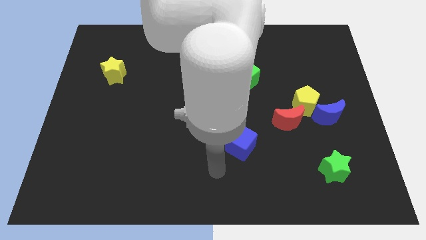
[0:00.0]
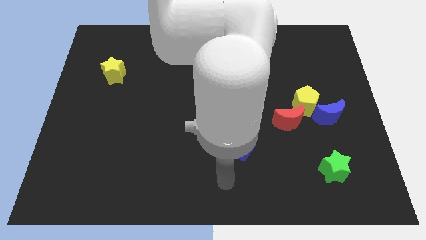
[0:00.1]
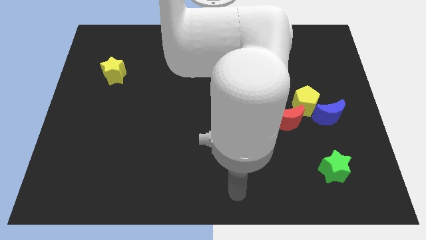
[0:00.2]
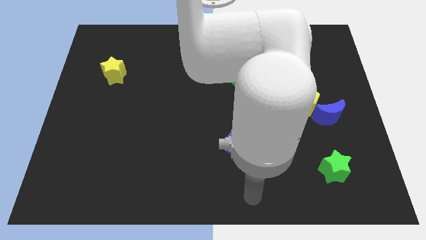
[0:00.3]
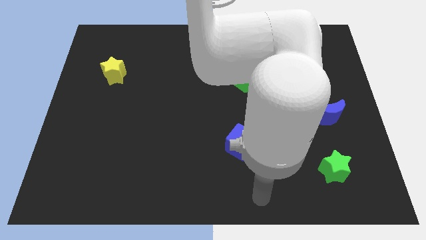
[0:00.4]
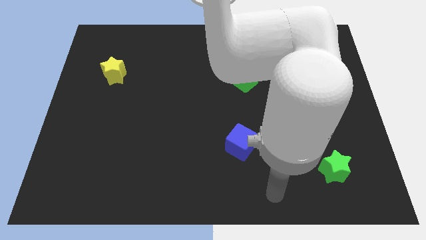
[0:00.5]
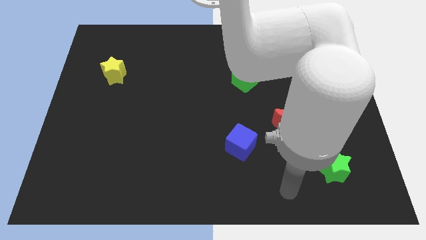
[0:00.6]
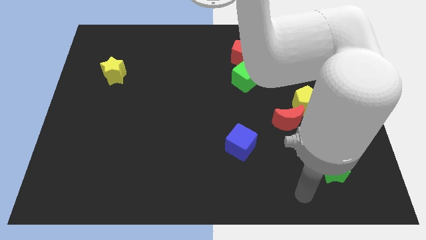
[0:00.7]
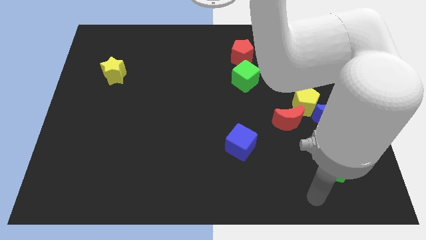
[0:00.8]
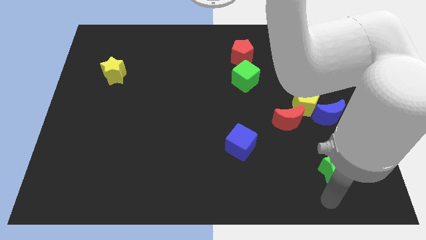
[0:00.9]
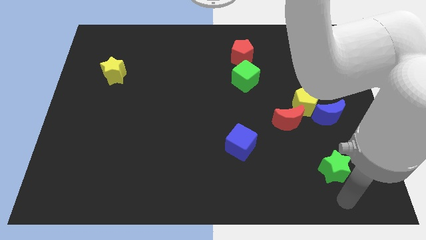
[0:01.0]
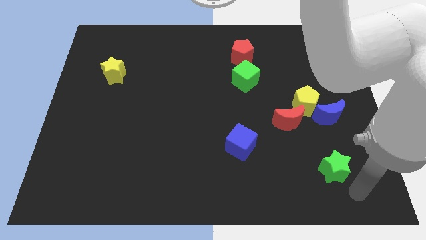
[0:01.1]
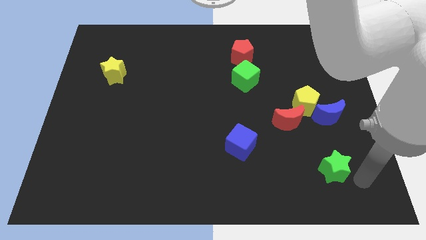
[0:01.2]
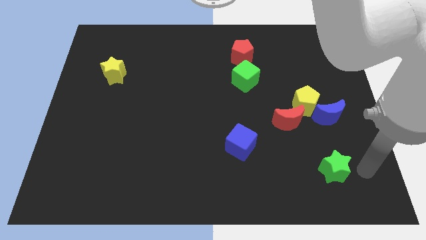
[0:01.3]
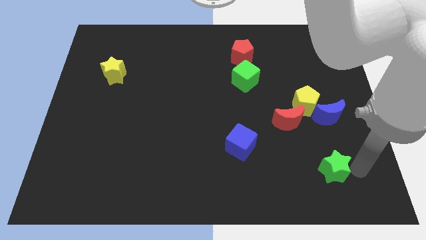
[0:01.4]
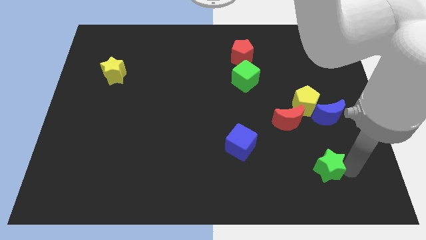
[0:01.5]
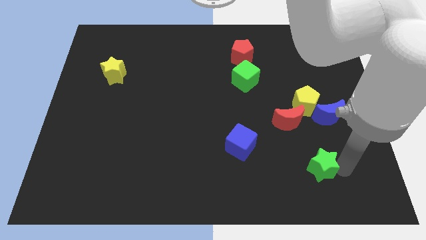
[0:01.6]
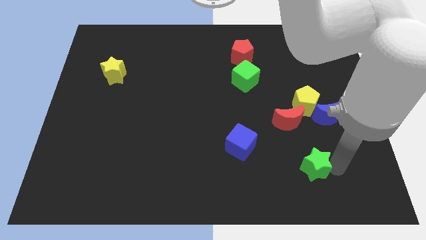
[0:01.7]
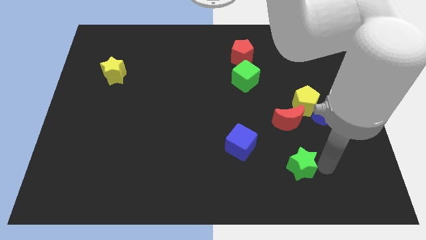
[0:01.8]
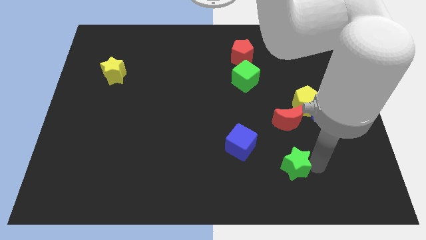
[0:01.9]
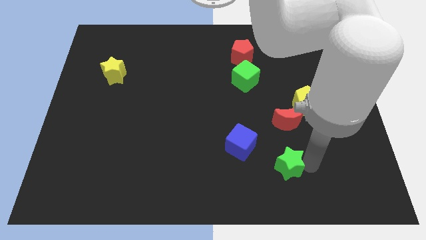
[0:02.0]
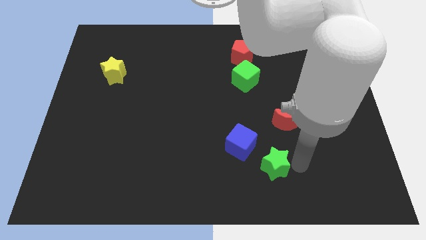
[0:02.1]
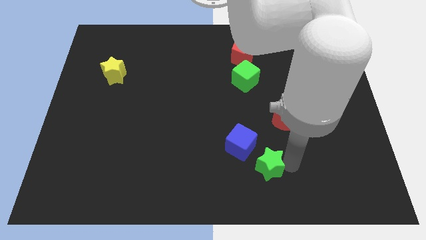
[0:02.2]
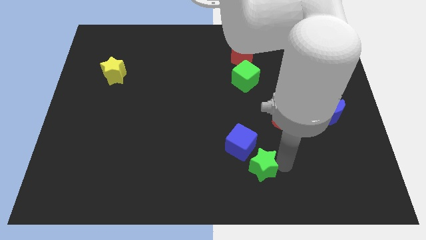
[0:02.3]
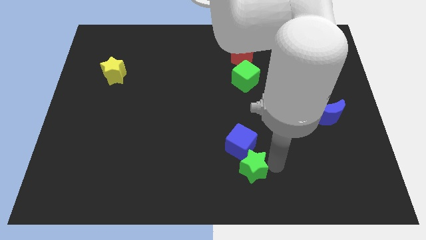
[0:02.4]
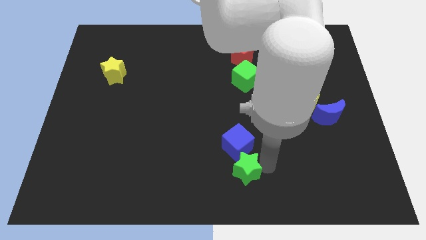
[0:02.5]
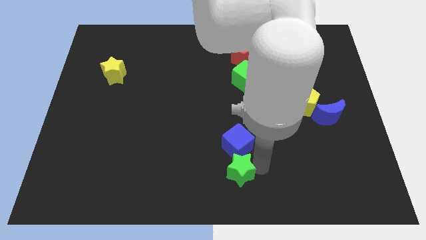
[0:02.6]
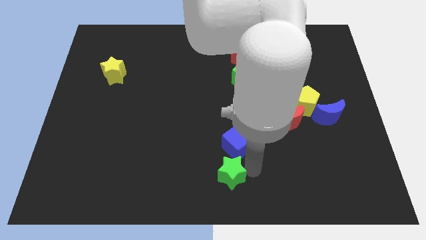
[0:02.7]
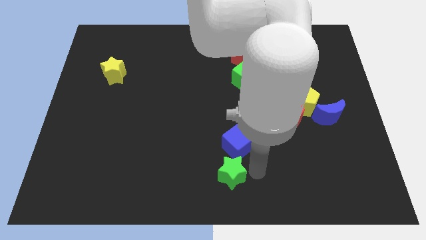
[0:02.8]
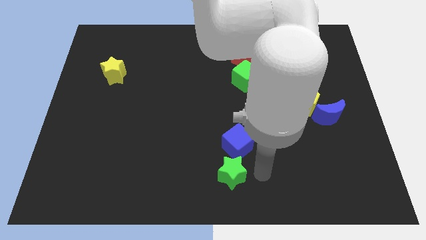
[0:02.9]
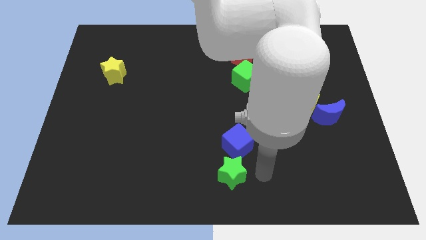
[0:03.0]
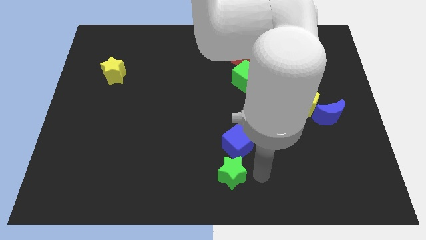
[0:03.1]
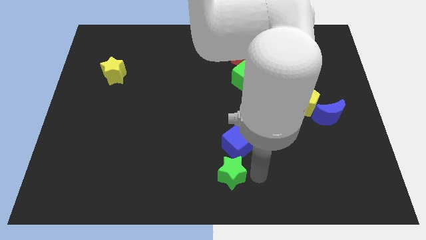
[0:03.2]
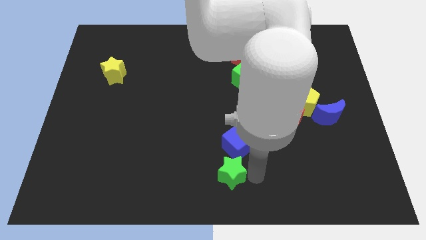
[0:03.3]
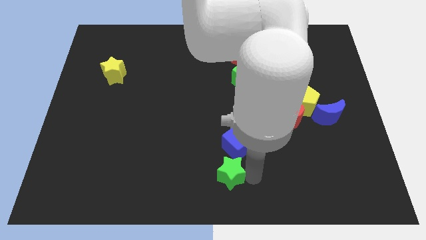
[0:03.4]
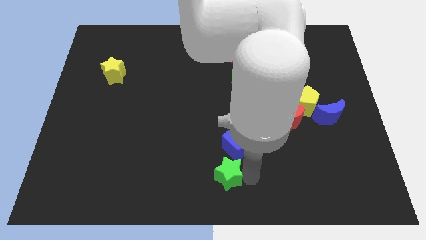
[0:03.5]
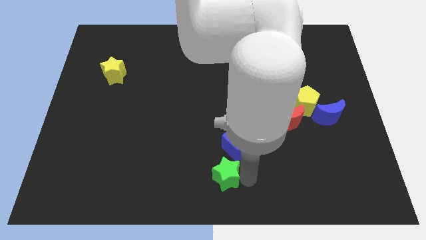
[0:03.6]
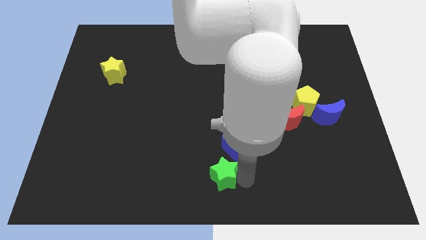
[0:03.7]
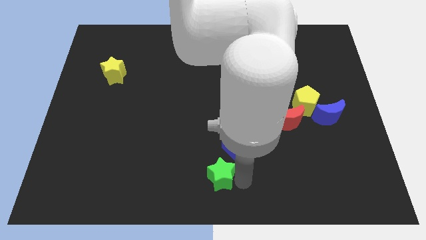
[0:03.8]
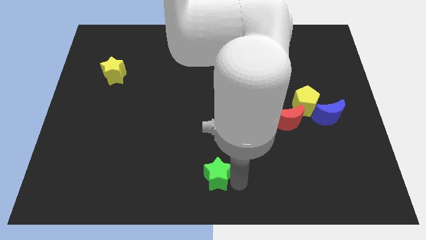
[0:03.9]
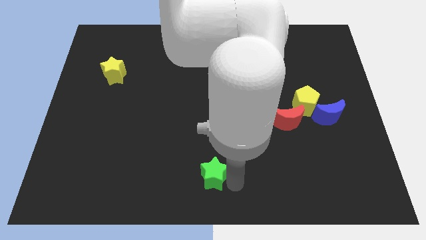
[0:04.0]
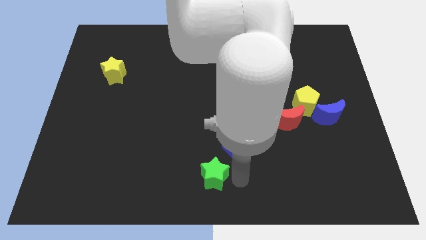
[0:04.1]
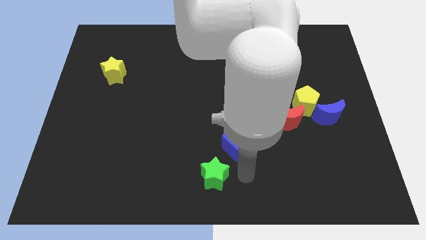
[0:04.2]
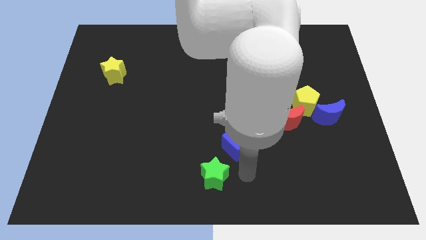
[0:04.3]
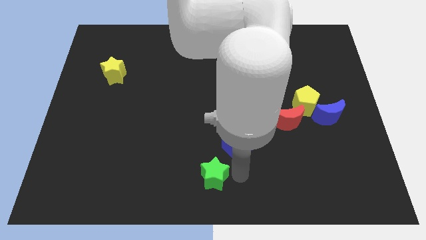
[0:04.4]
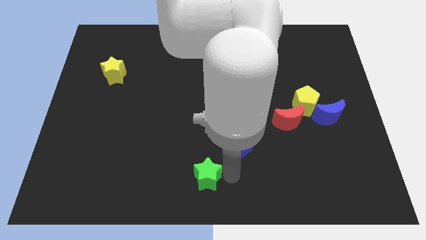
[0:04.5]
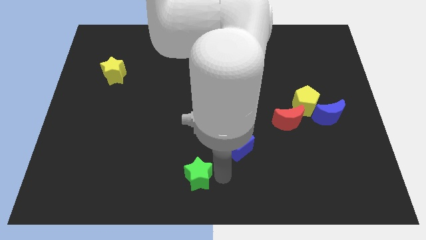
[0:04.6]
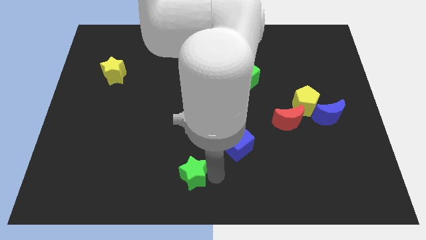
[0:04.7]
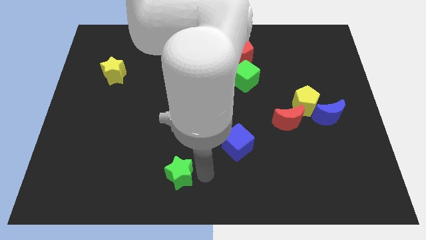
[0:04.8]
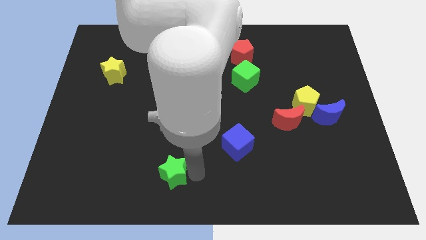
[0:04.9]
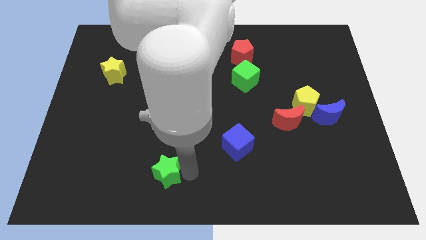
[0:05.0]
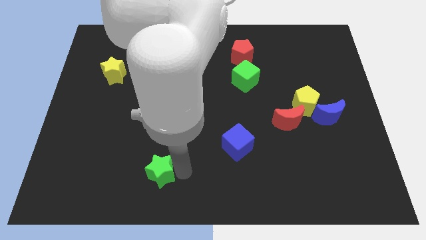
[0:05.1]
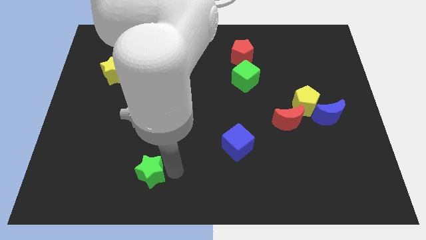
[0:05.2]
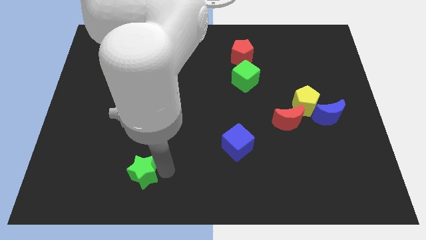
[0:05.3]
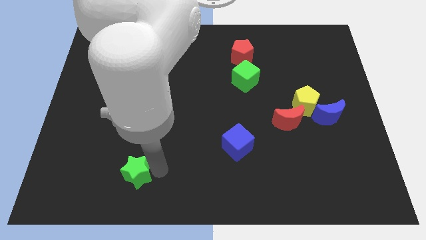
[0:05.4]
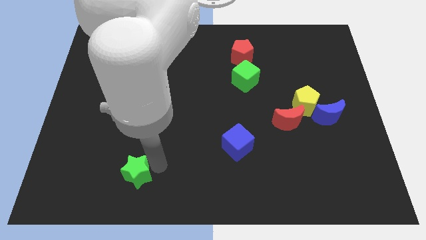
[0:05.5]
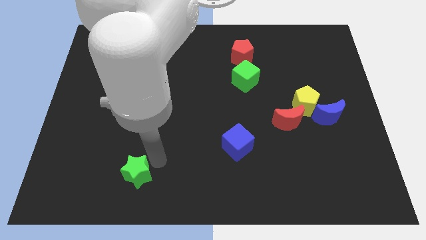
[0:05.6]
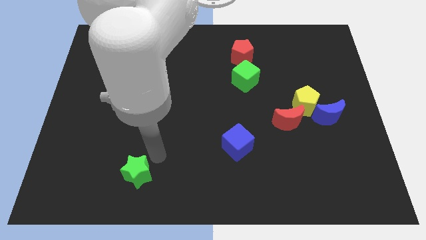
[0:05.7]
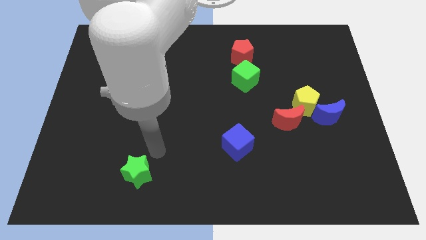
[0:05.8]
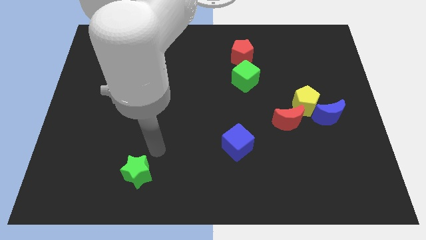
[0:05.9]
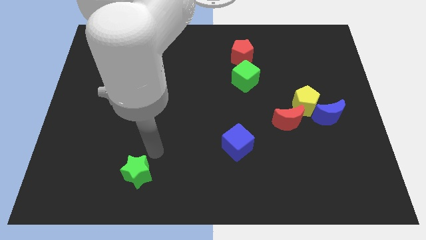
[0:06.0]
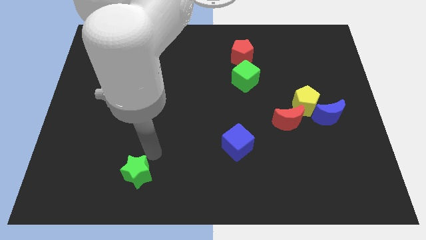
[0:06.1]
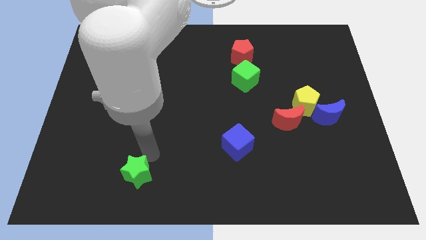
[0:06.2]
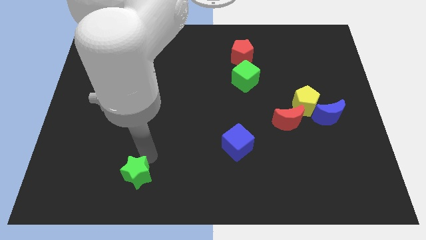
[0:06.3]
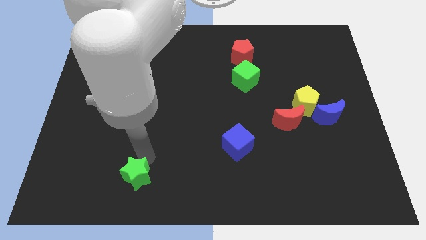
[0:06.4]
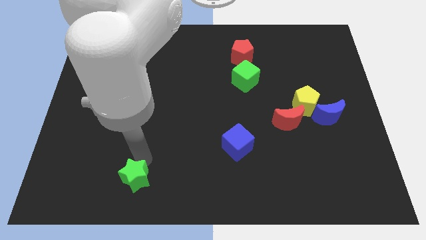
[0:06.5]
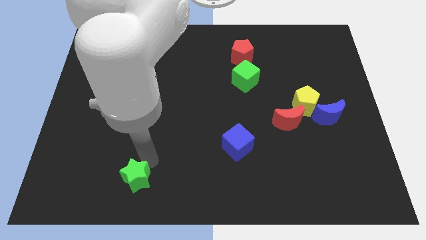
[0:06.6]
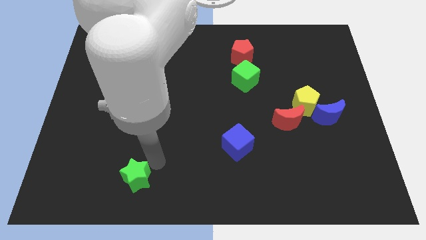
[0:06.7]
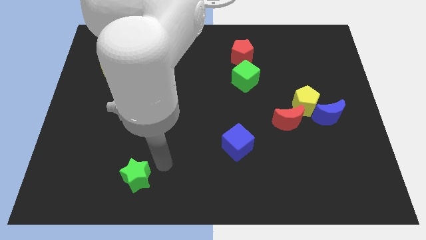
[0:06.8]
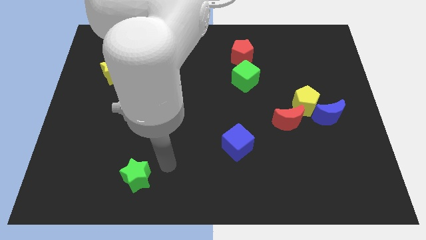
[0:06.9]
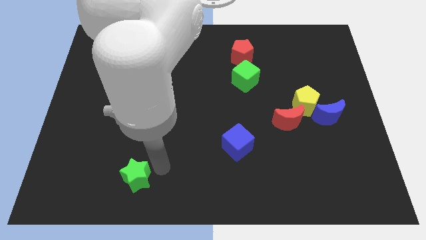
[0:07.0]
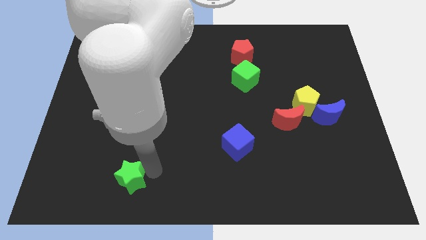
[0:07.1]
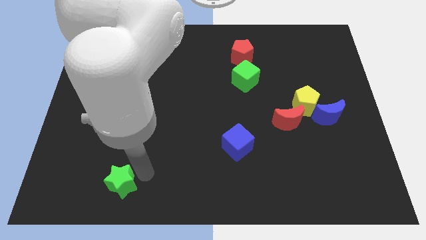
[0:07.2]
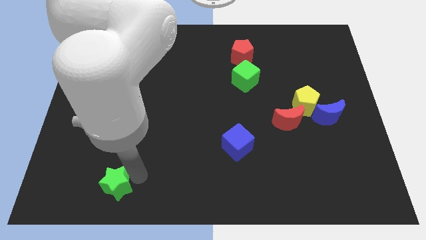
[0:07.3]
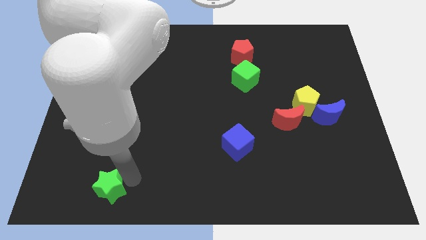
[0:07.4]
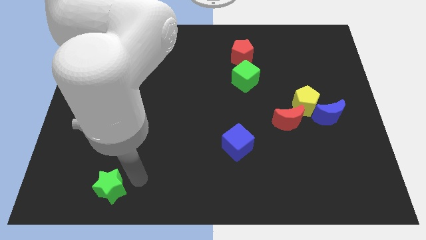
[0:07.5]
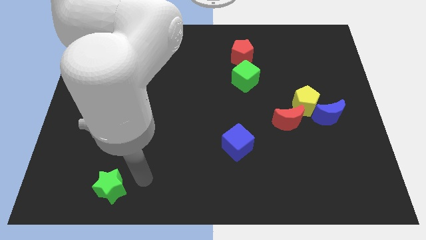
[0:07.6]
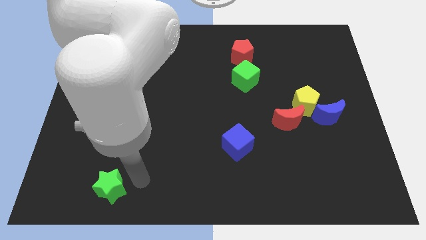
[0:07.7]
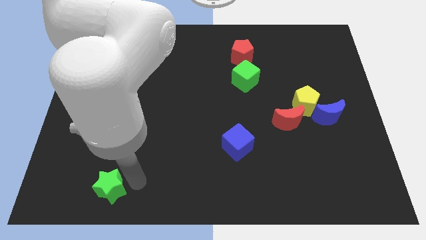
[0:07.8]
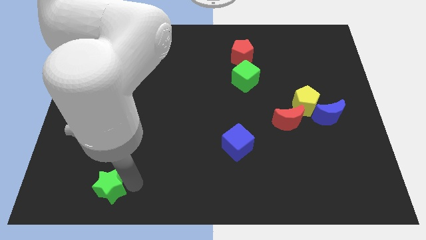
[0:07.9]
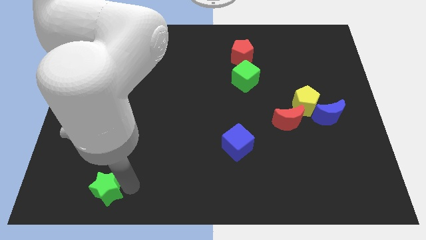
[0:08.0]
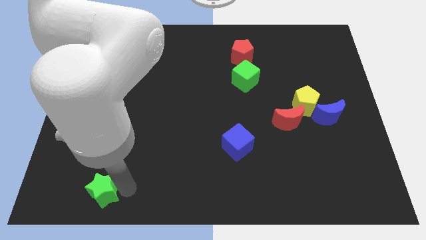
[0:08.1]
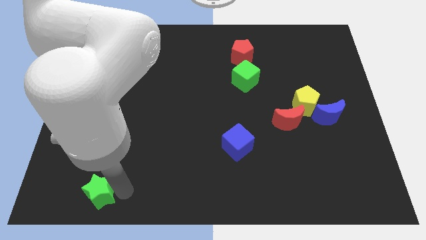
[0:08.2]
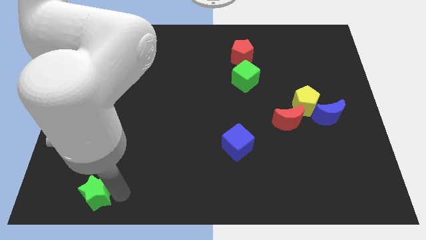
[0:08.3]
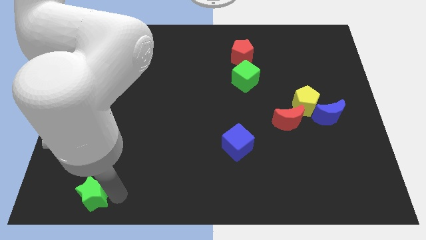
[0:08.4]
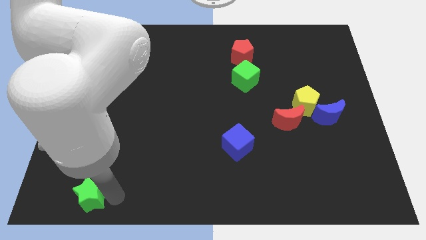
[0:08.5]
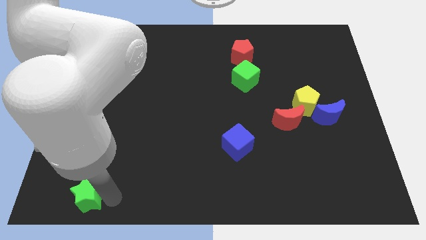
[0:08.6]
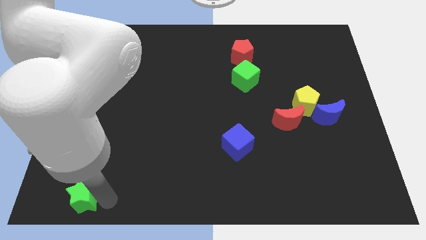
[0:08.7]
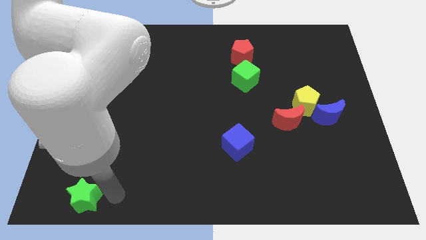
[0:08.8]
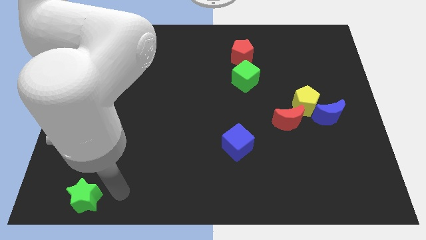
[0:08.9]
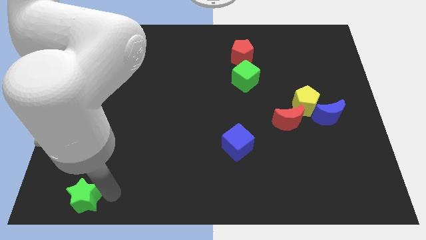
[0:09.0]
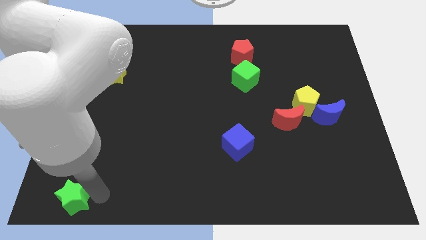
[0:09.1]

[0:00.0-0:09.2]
slide the green star to the bottom left corner
